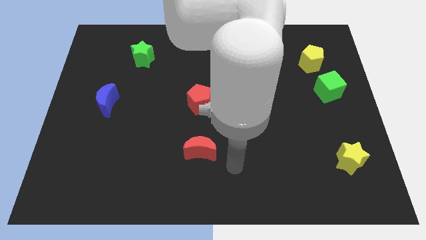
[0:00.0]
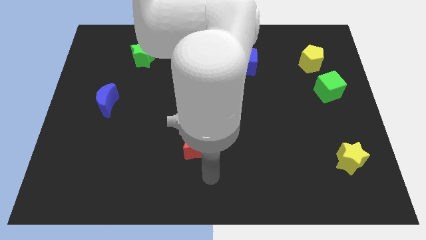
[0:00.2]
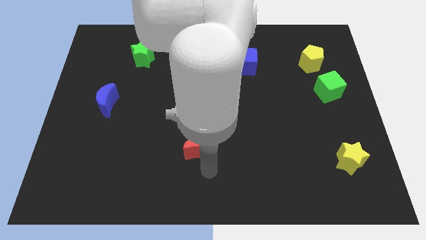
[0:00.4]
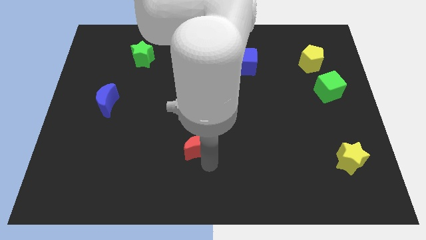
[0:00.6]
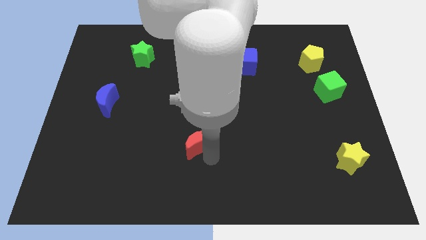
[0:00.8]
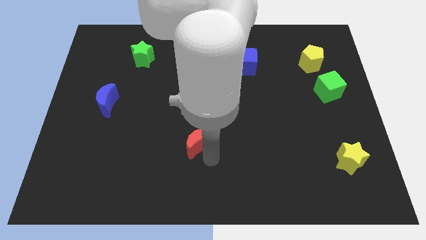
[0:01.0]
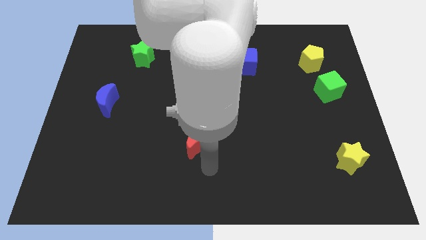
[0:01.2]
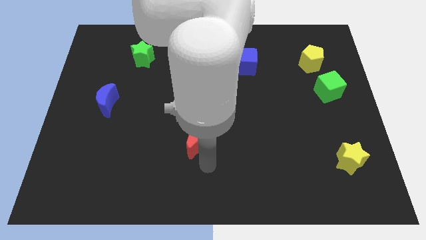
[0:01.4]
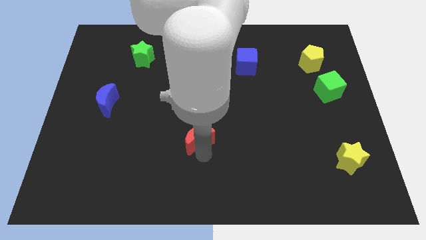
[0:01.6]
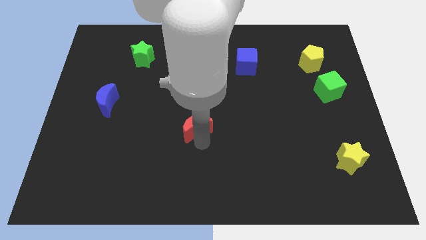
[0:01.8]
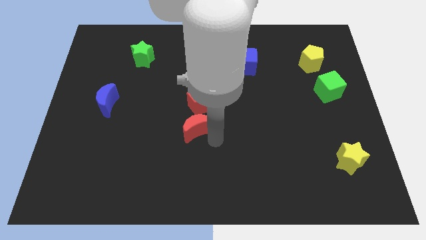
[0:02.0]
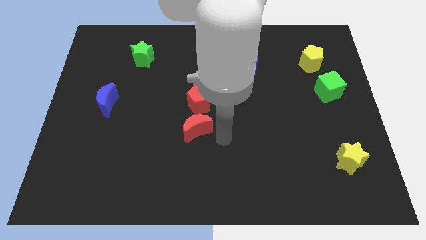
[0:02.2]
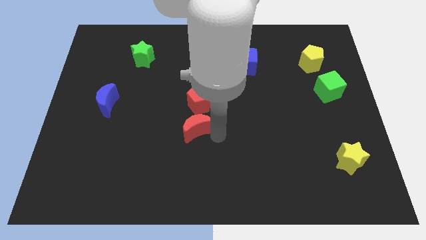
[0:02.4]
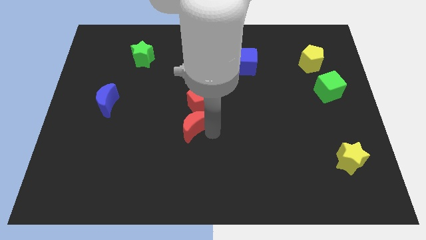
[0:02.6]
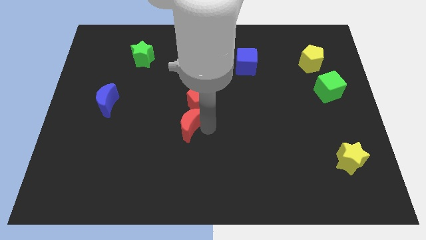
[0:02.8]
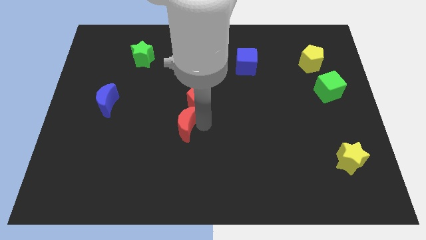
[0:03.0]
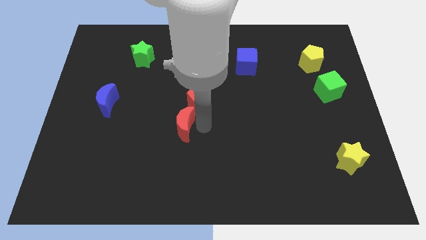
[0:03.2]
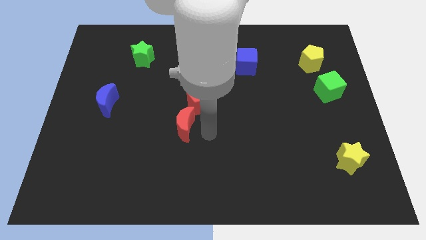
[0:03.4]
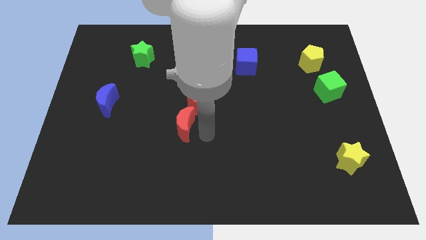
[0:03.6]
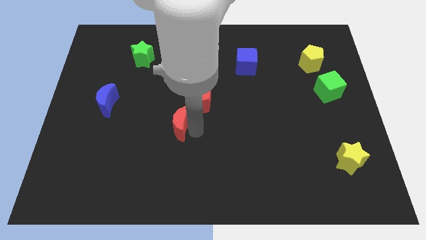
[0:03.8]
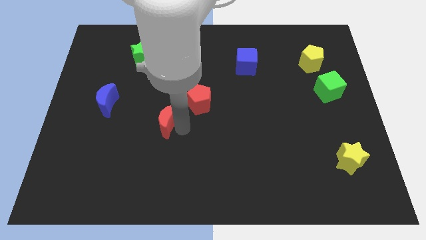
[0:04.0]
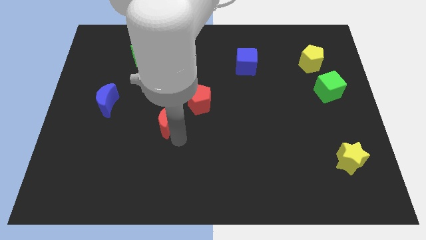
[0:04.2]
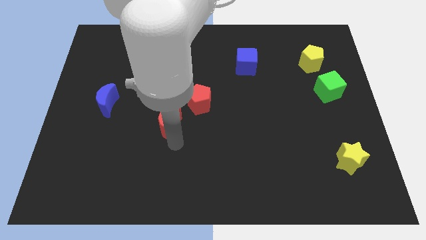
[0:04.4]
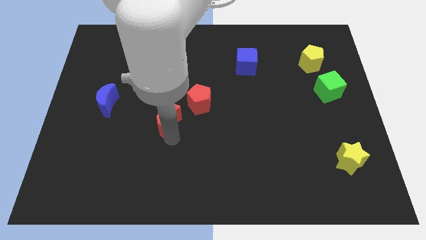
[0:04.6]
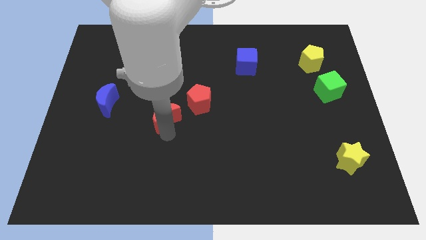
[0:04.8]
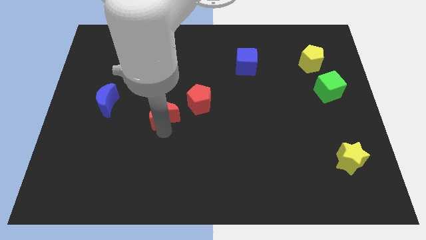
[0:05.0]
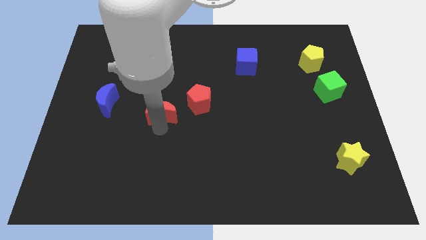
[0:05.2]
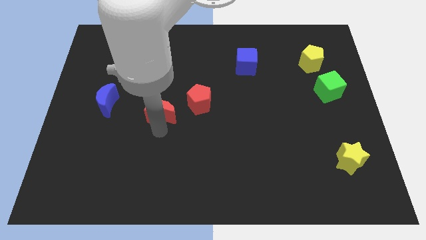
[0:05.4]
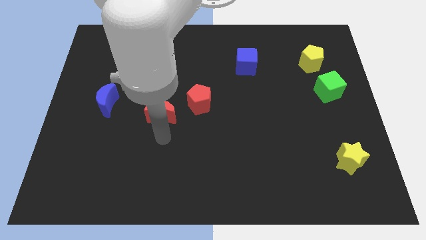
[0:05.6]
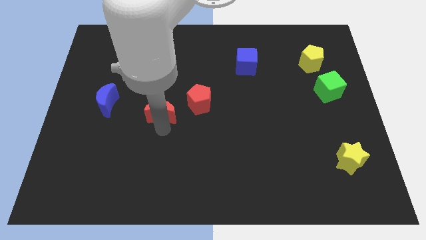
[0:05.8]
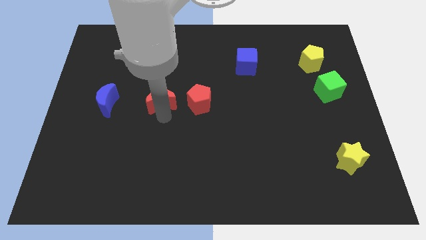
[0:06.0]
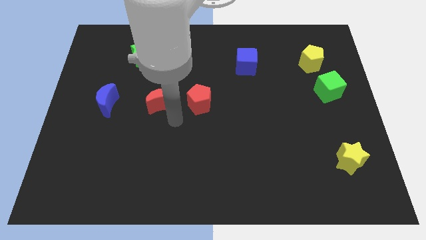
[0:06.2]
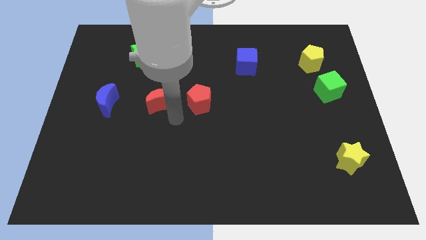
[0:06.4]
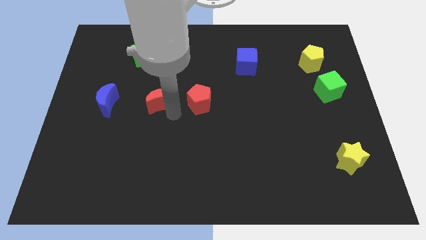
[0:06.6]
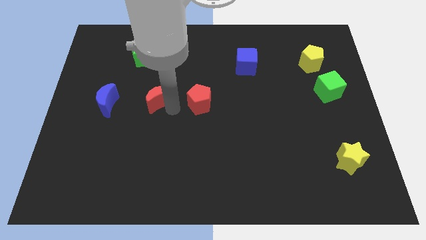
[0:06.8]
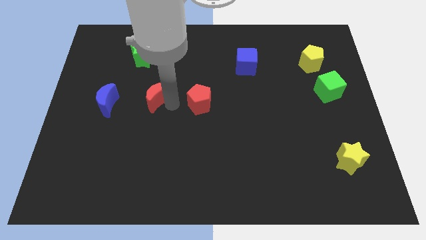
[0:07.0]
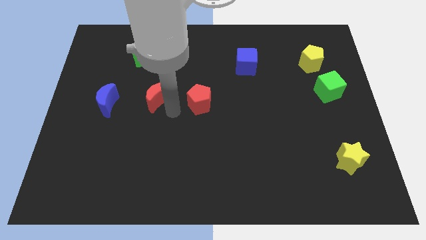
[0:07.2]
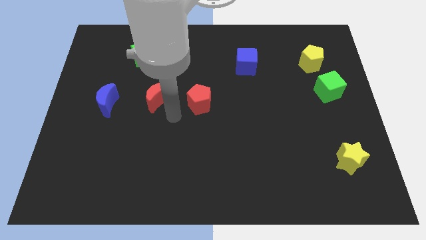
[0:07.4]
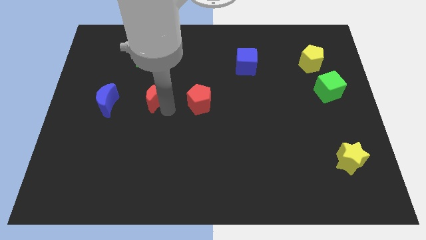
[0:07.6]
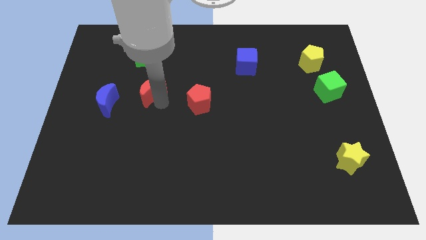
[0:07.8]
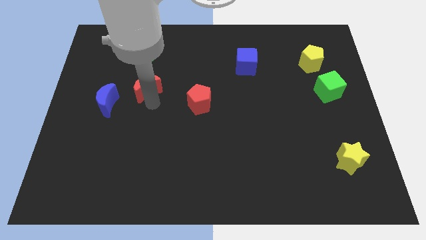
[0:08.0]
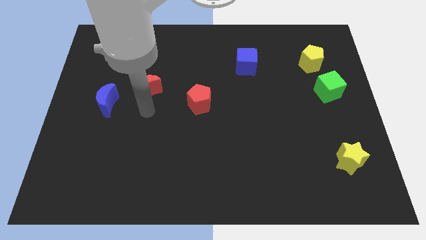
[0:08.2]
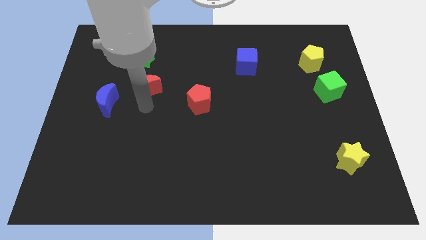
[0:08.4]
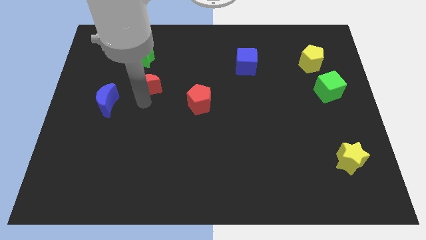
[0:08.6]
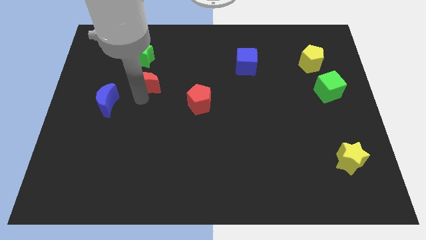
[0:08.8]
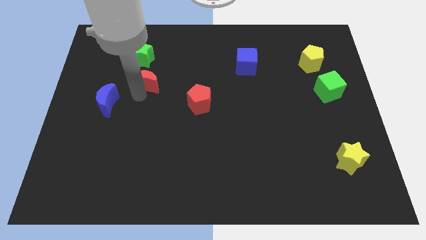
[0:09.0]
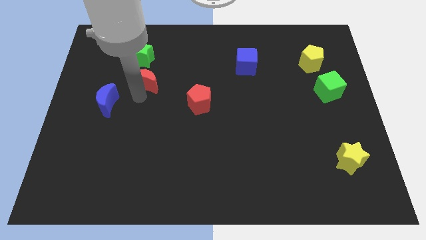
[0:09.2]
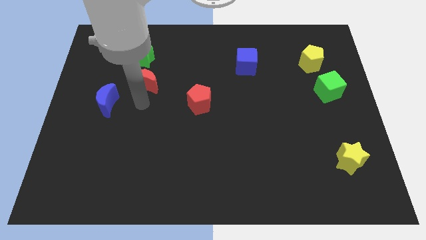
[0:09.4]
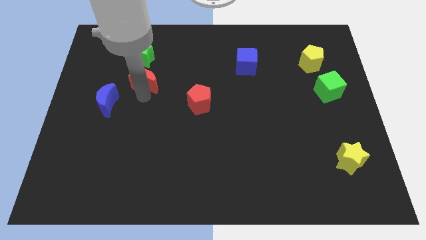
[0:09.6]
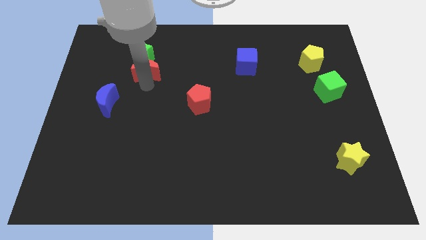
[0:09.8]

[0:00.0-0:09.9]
put the red moon next to the green star

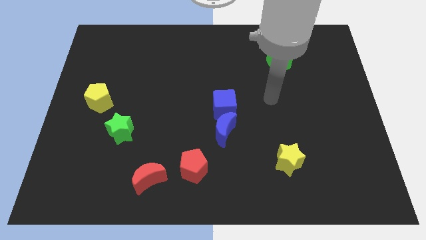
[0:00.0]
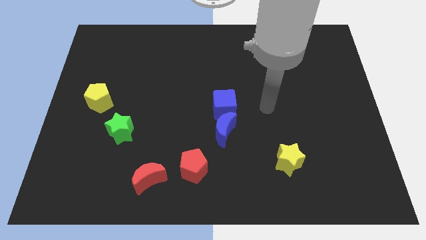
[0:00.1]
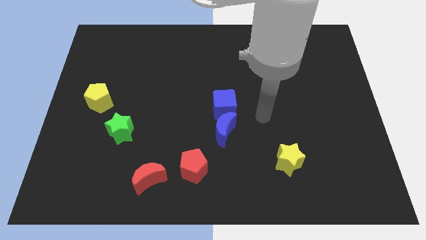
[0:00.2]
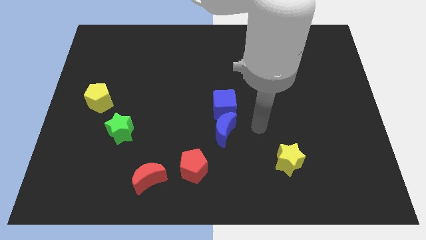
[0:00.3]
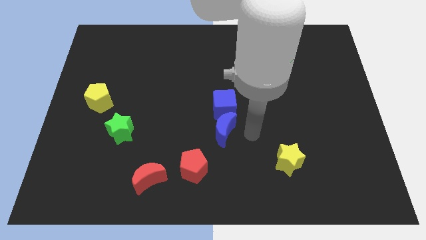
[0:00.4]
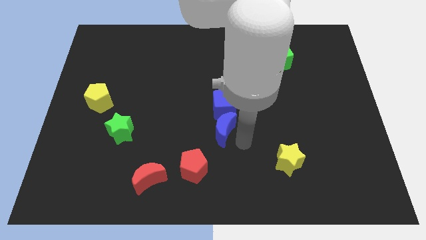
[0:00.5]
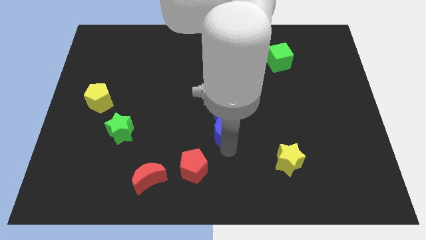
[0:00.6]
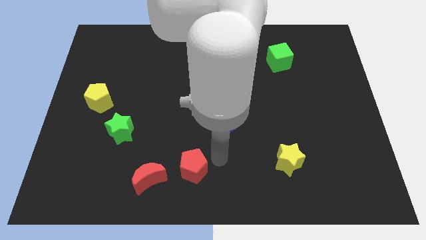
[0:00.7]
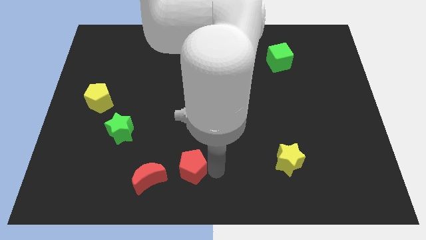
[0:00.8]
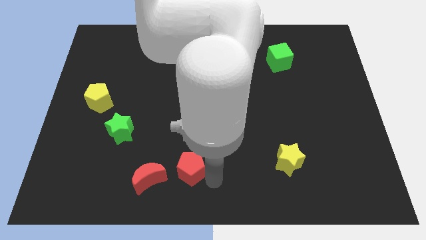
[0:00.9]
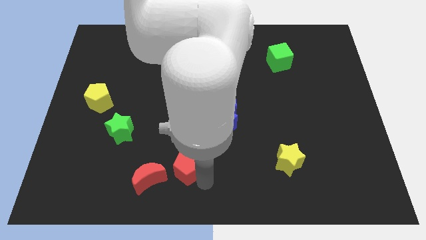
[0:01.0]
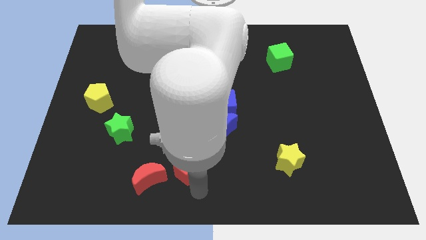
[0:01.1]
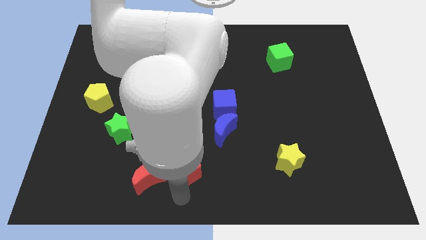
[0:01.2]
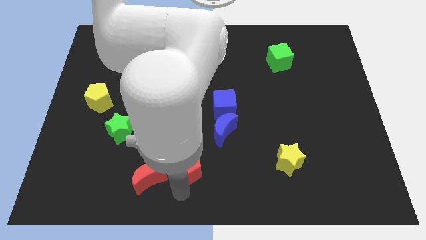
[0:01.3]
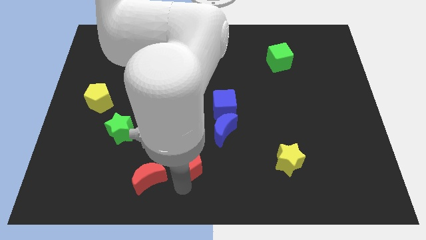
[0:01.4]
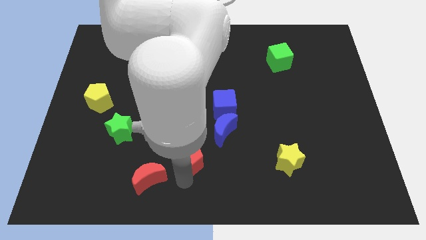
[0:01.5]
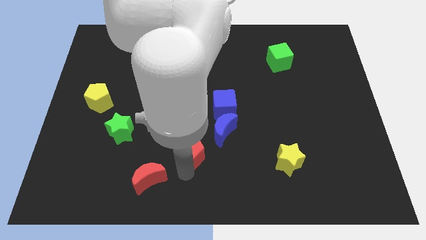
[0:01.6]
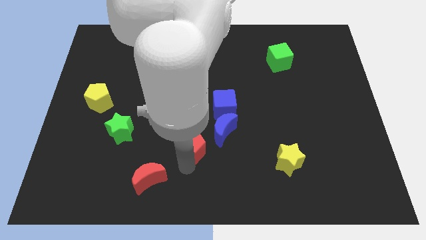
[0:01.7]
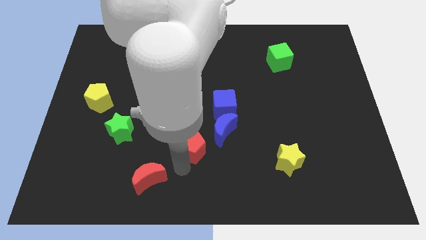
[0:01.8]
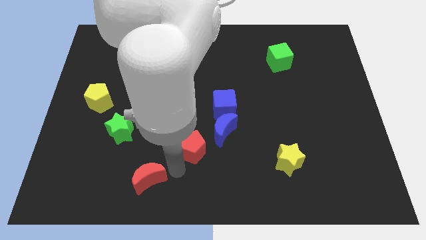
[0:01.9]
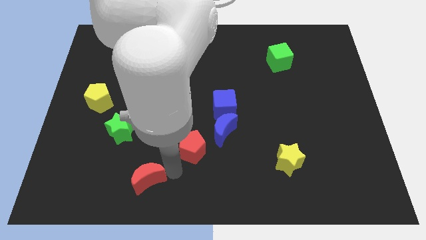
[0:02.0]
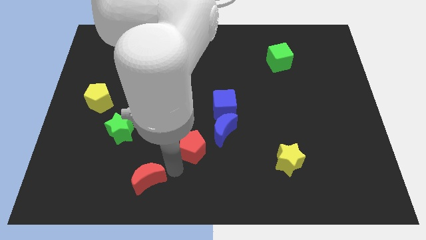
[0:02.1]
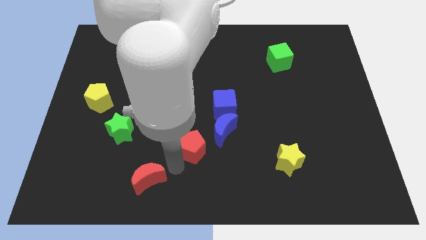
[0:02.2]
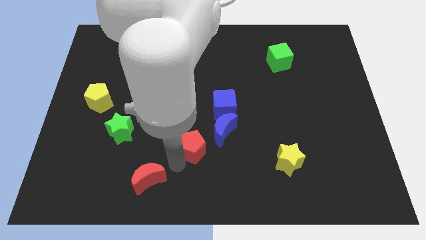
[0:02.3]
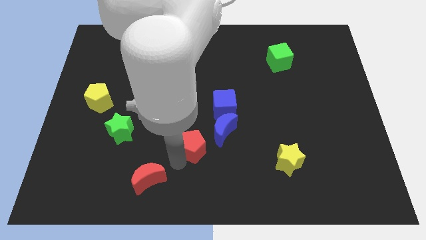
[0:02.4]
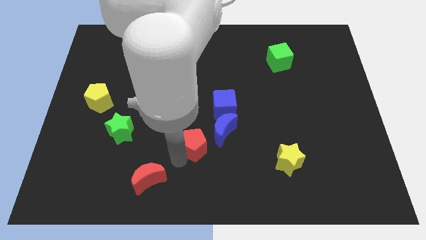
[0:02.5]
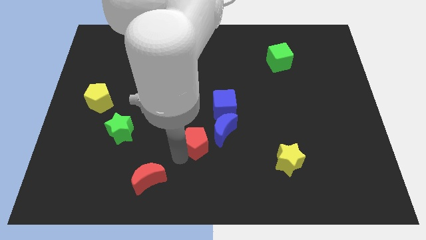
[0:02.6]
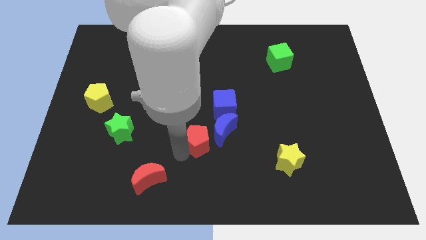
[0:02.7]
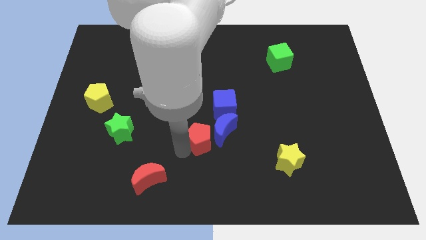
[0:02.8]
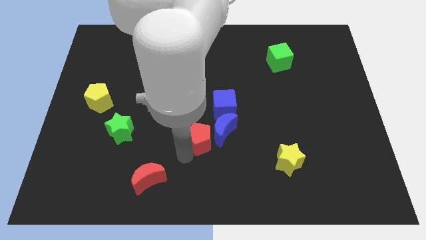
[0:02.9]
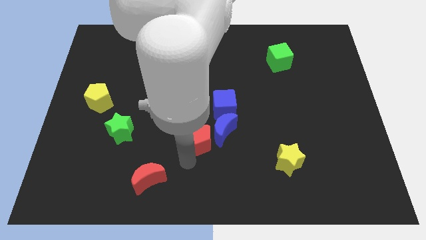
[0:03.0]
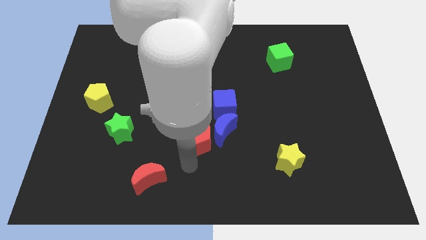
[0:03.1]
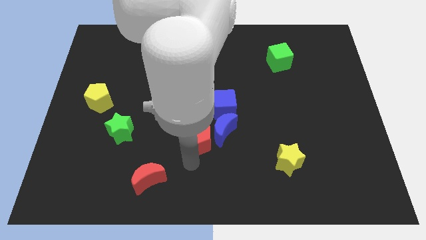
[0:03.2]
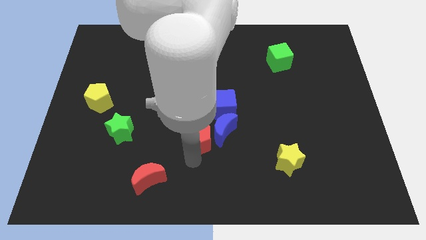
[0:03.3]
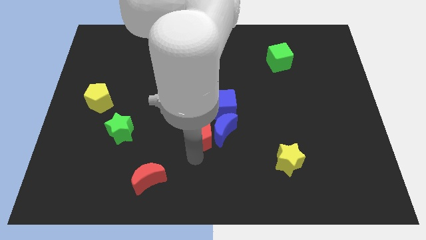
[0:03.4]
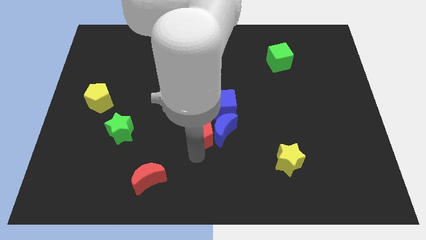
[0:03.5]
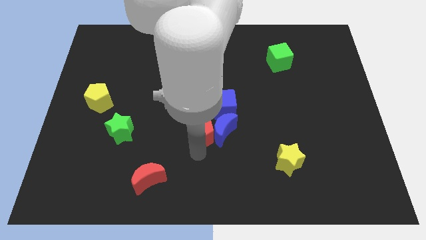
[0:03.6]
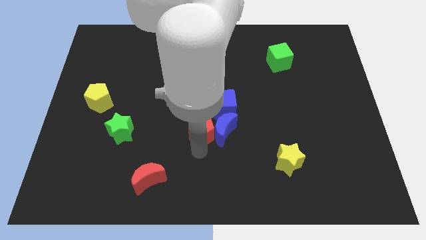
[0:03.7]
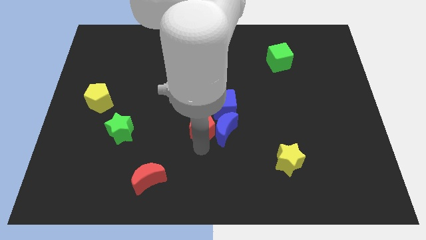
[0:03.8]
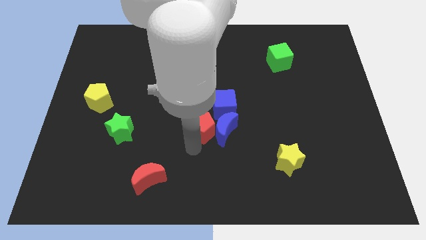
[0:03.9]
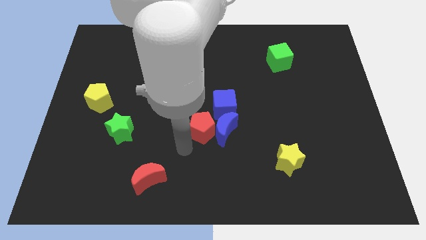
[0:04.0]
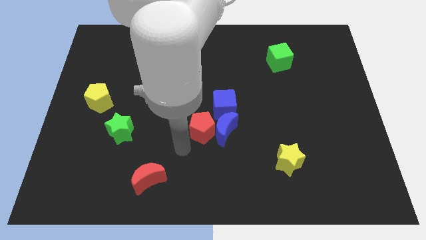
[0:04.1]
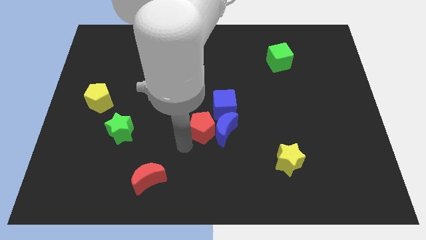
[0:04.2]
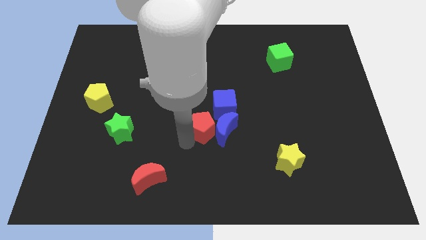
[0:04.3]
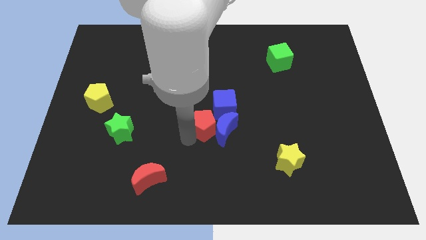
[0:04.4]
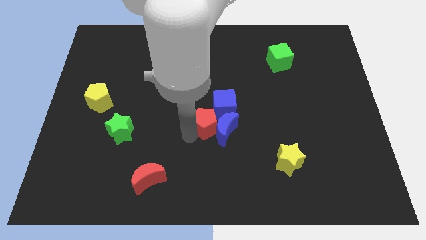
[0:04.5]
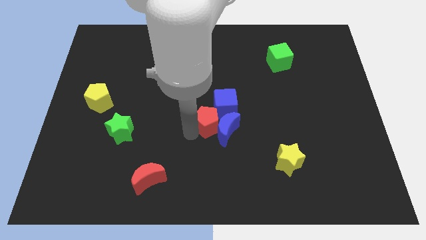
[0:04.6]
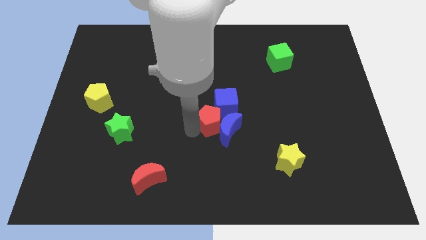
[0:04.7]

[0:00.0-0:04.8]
push the red pentagon next to the blue cube
